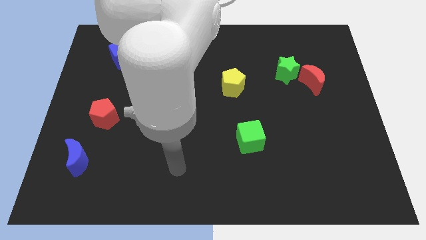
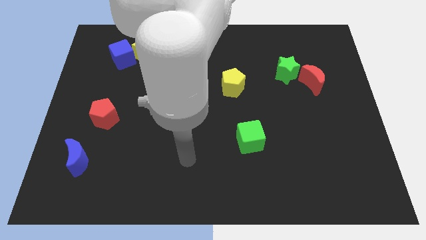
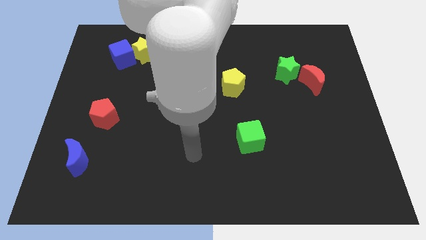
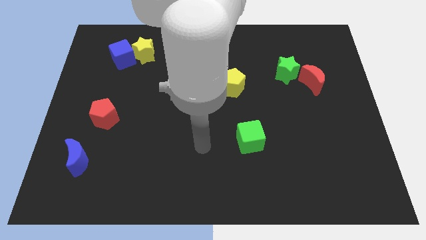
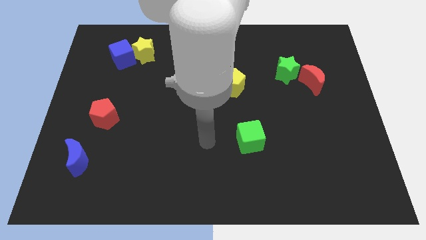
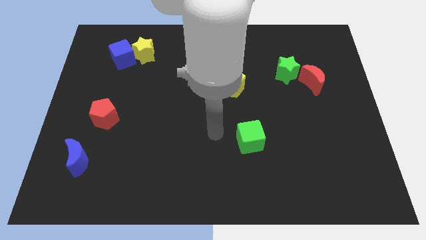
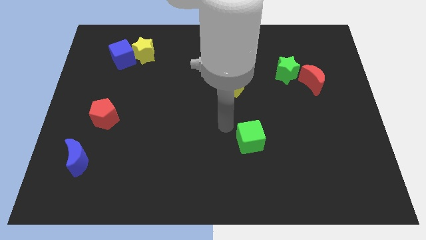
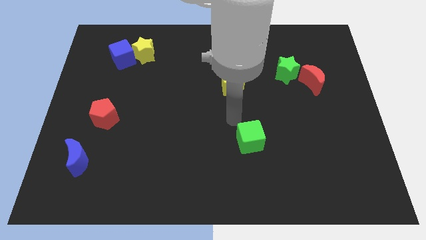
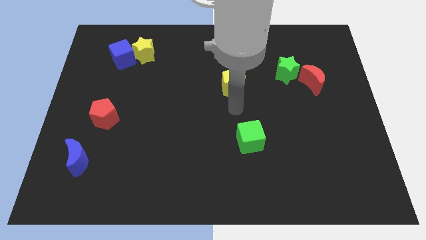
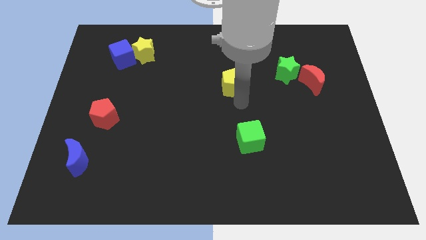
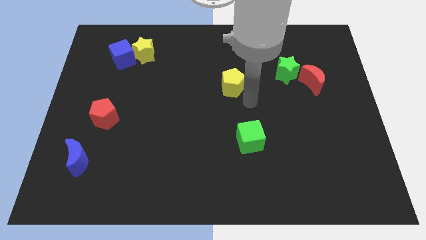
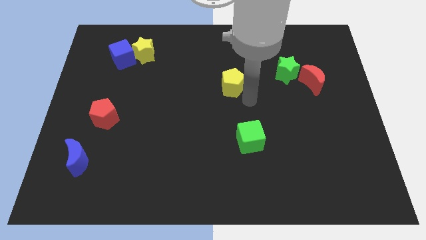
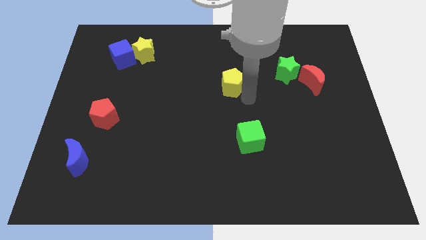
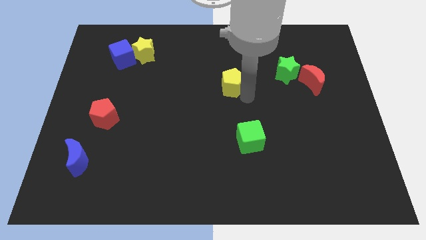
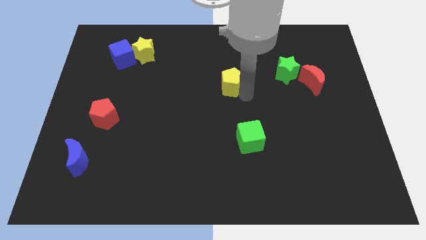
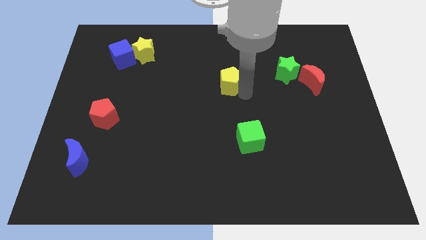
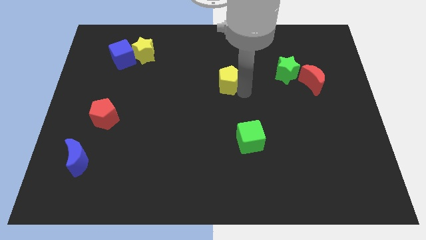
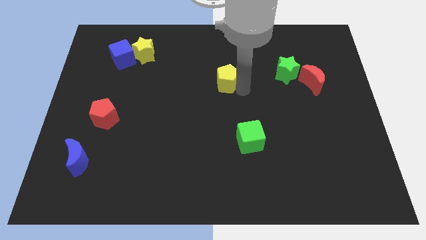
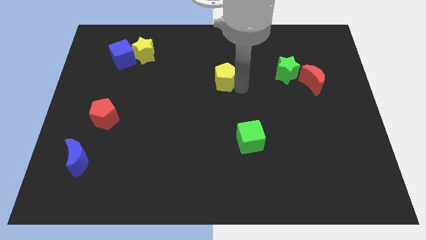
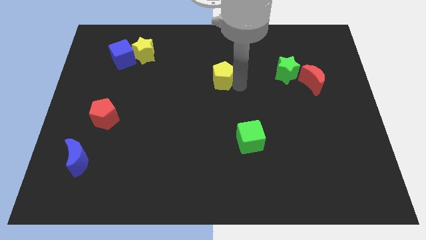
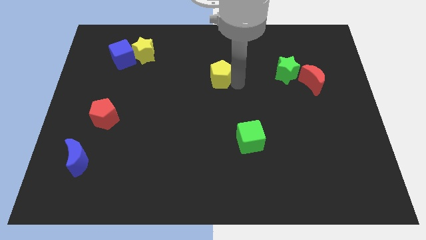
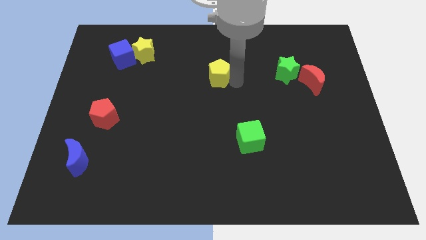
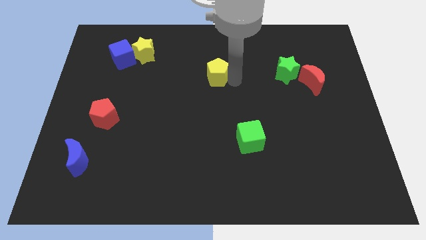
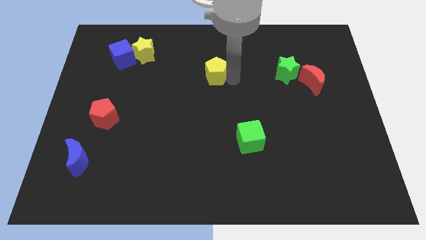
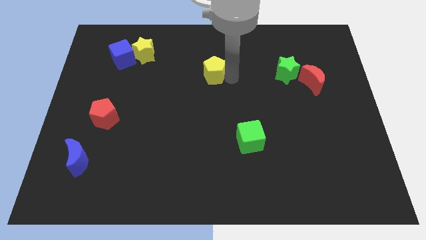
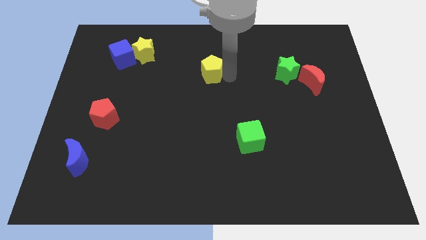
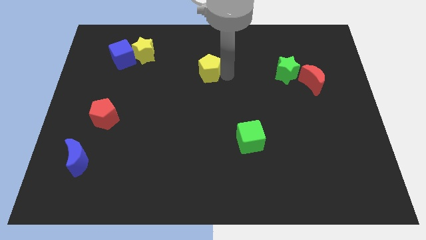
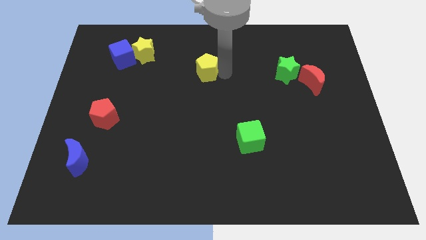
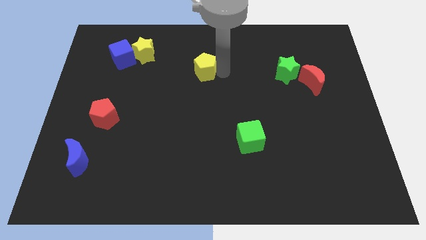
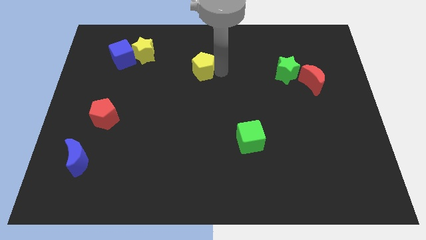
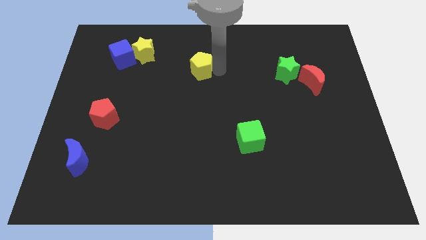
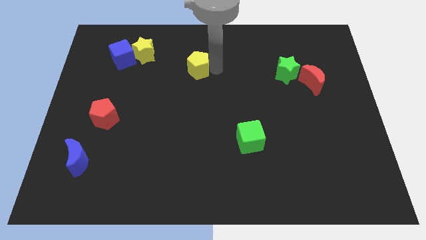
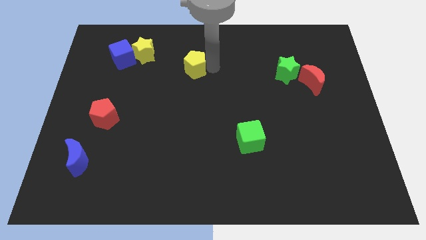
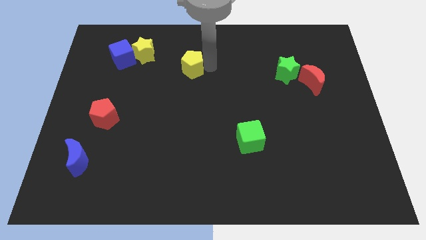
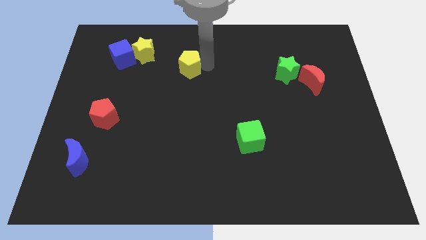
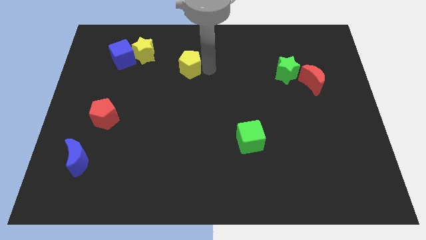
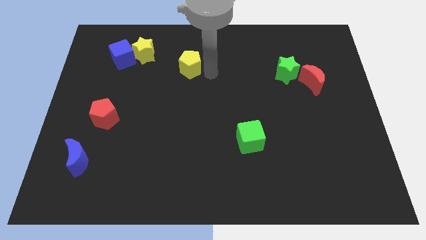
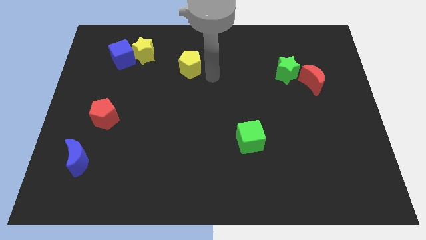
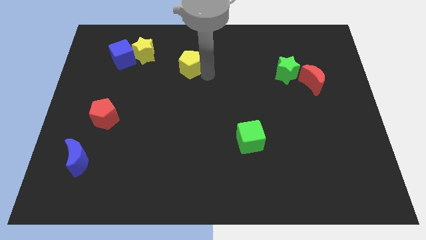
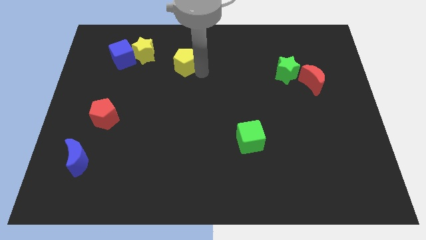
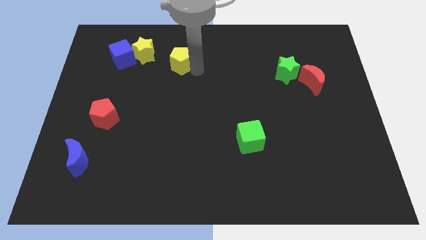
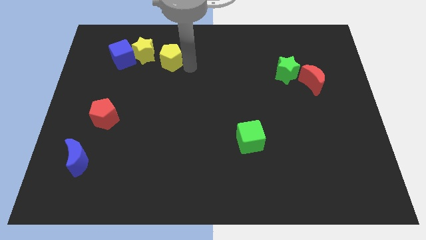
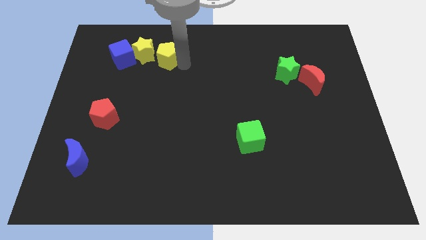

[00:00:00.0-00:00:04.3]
move the yellow pentagon to the yellow star

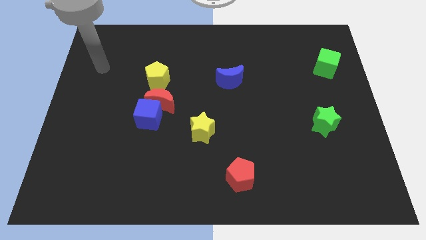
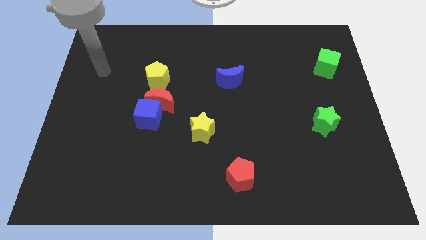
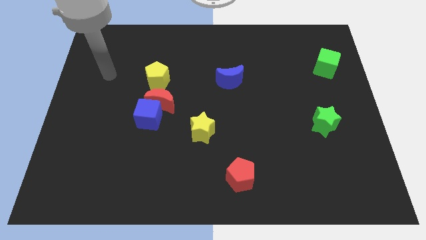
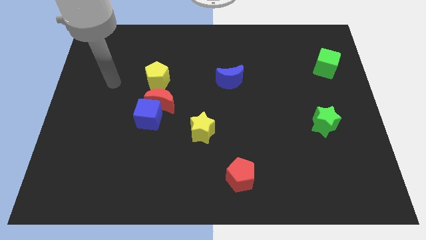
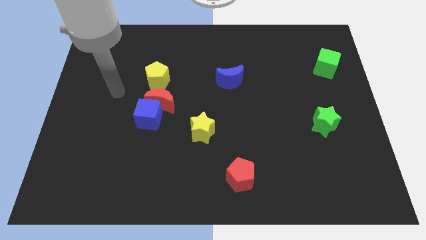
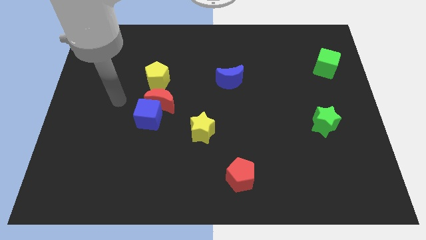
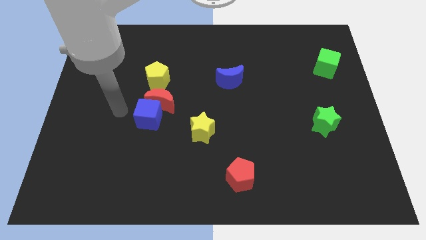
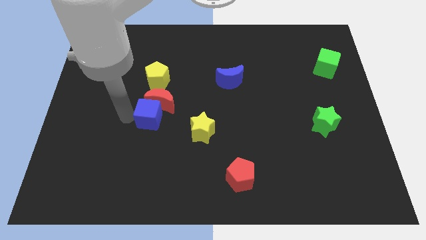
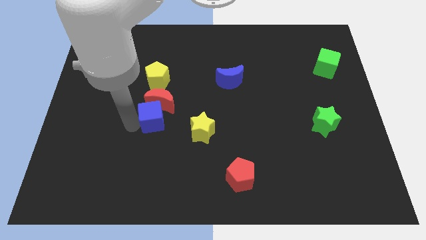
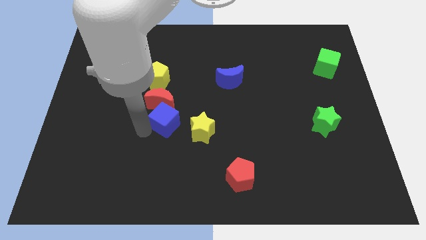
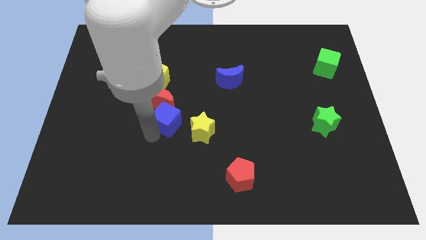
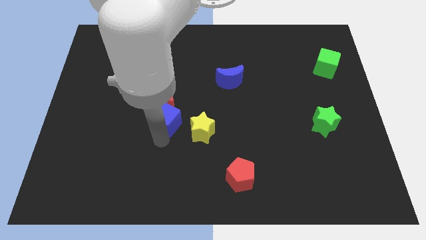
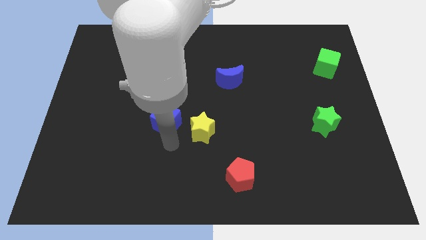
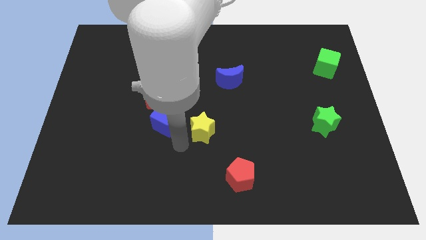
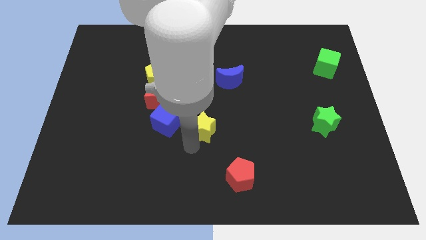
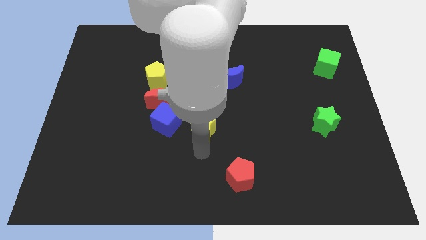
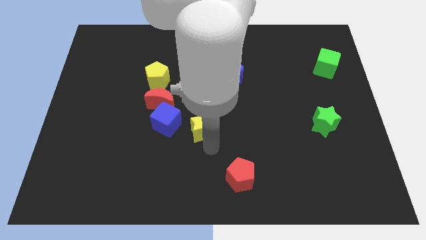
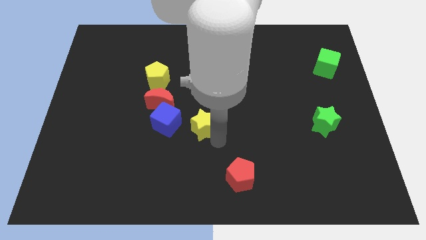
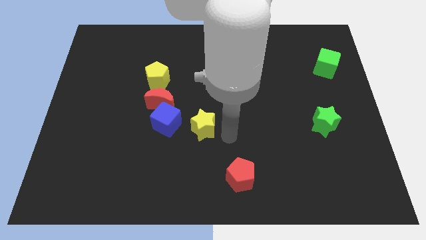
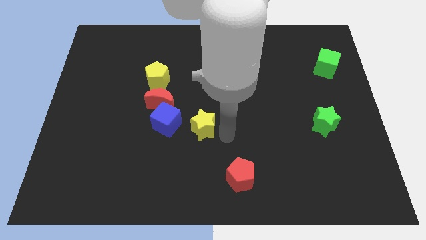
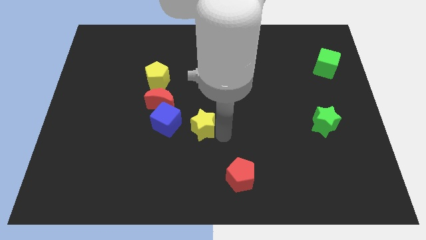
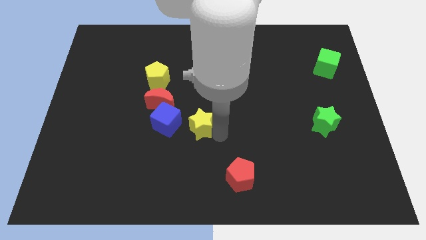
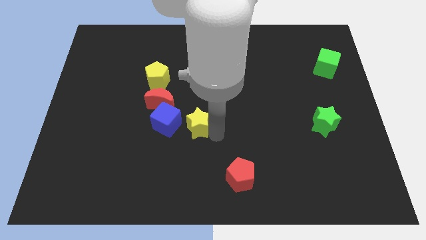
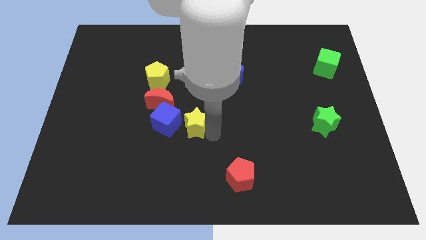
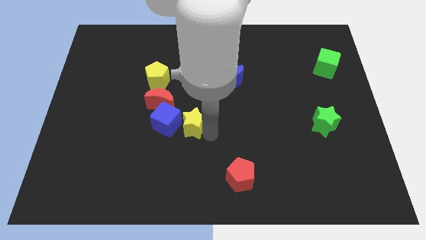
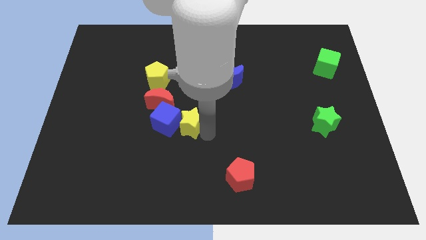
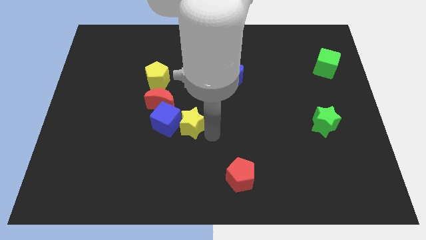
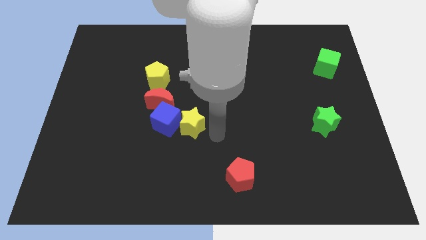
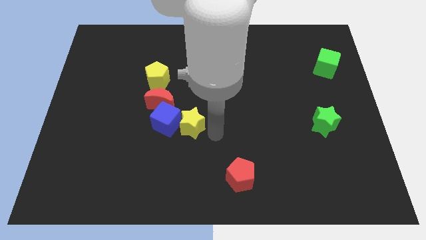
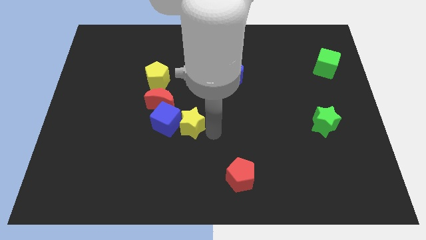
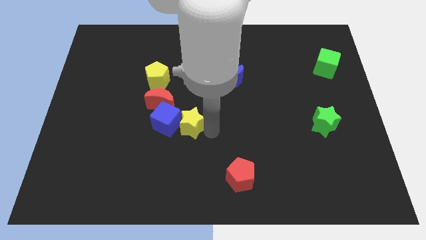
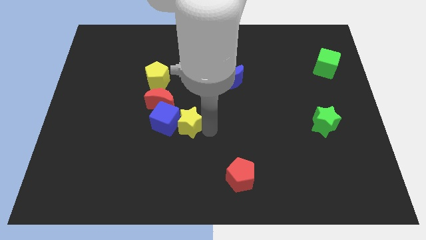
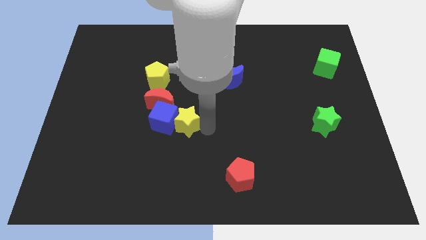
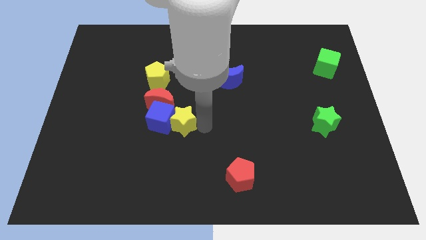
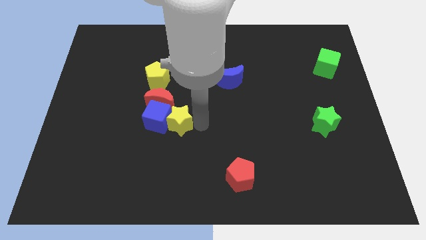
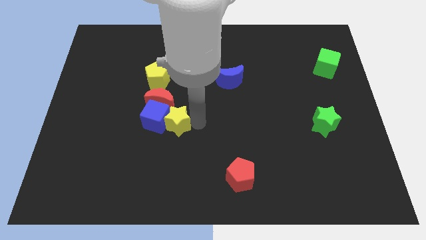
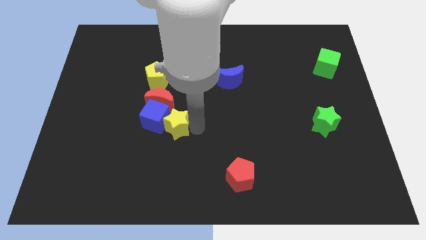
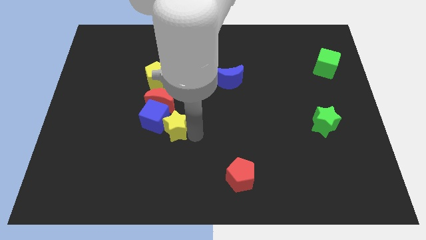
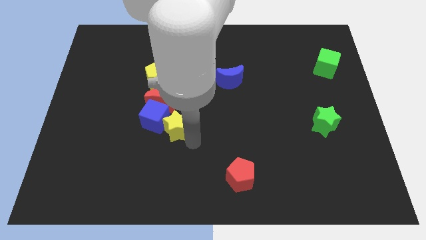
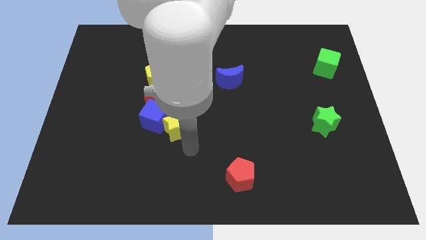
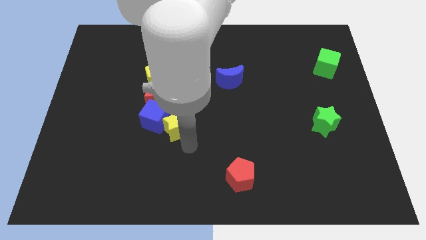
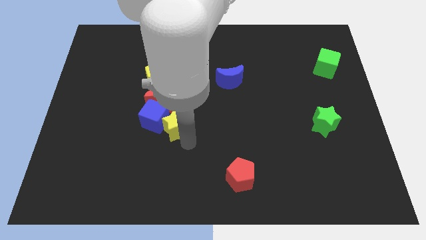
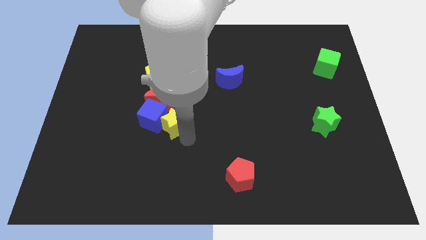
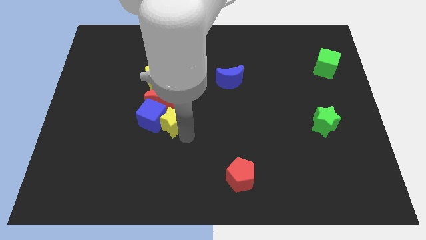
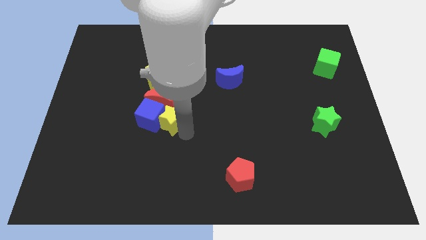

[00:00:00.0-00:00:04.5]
push the yellow star close to the red moon
